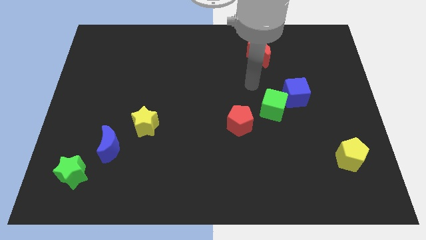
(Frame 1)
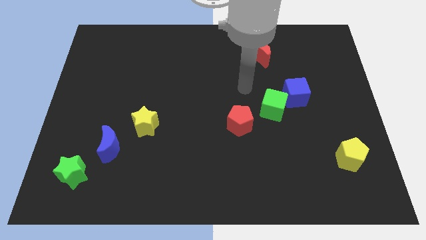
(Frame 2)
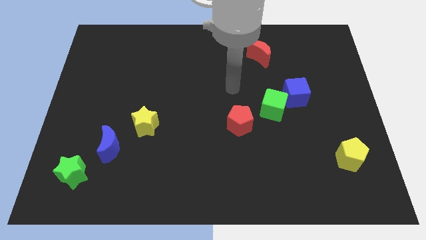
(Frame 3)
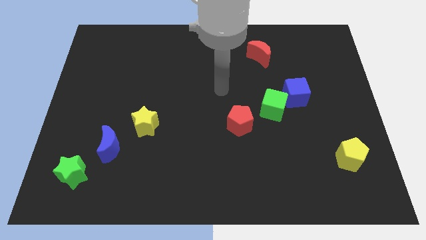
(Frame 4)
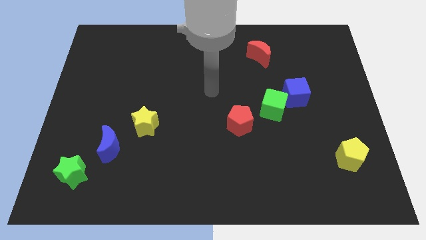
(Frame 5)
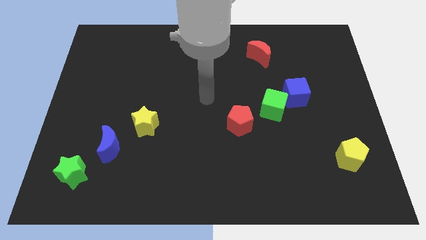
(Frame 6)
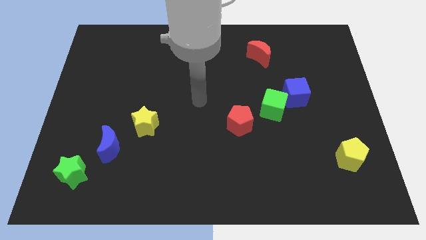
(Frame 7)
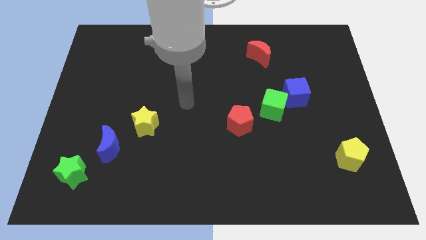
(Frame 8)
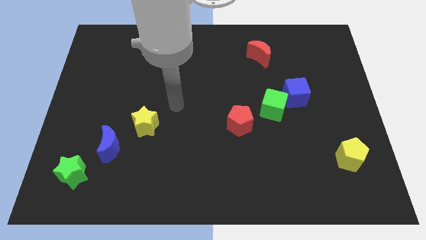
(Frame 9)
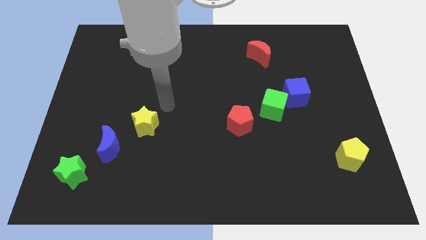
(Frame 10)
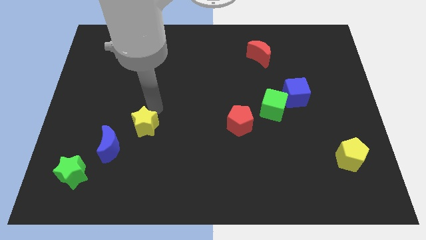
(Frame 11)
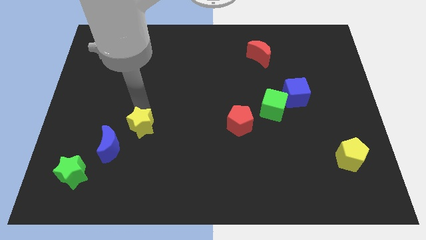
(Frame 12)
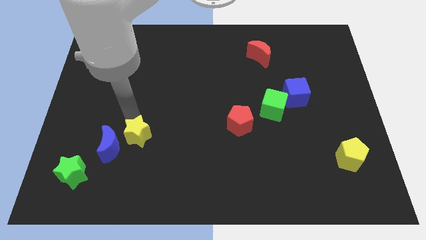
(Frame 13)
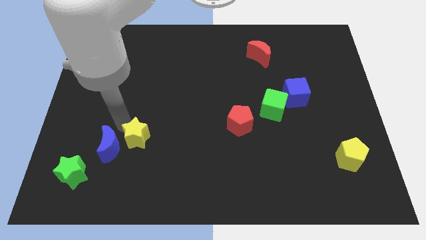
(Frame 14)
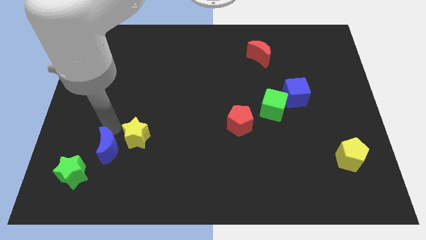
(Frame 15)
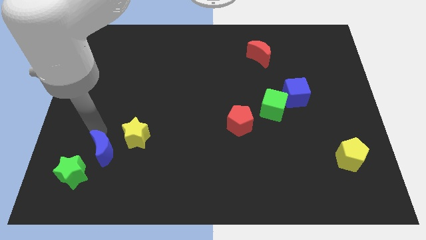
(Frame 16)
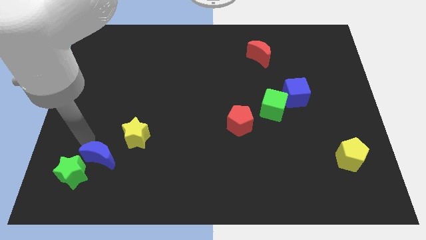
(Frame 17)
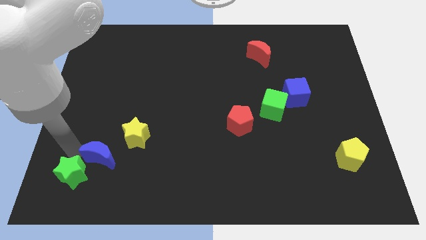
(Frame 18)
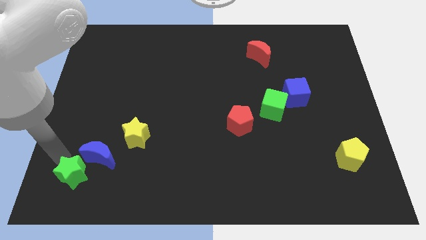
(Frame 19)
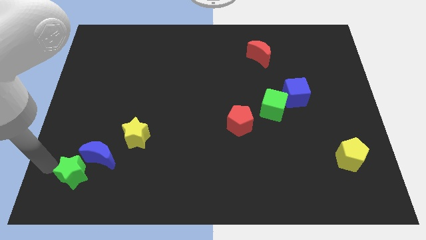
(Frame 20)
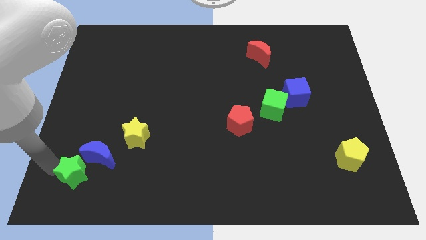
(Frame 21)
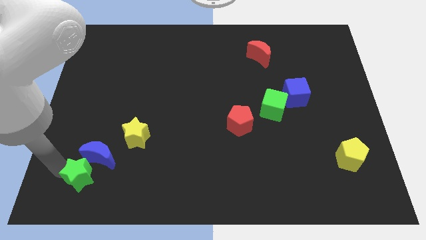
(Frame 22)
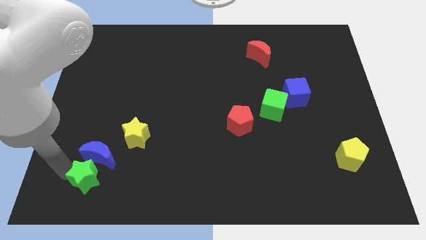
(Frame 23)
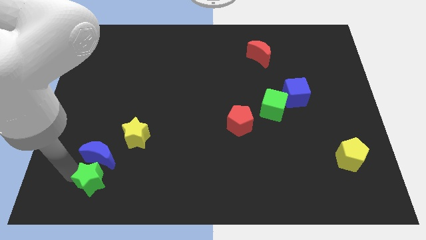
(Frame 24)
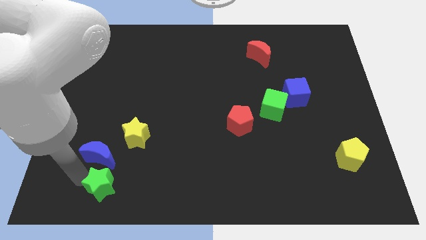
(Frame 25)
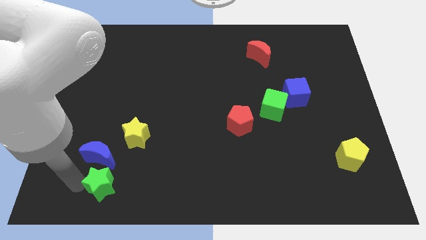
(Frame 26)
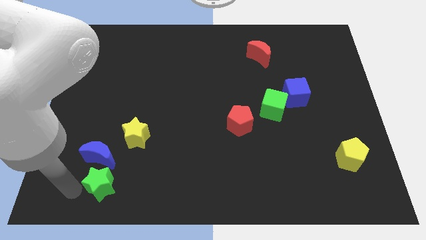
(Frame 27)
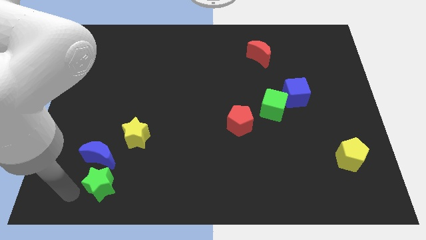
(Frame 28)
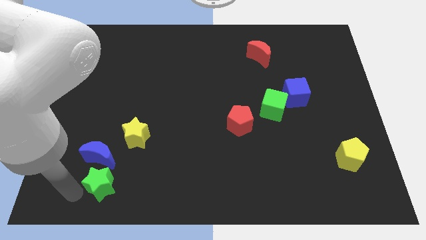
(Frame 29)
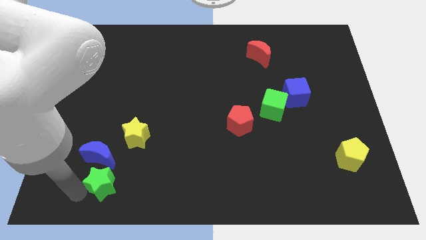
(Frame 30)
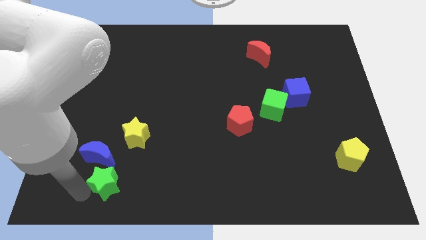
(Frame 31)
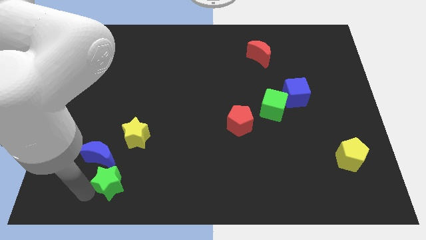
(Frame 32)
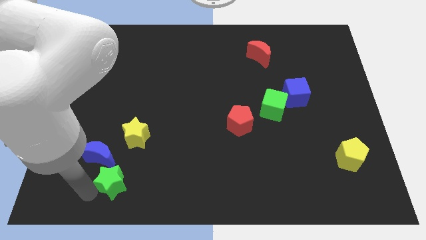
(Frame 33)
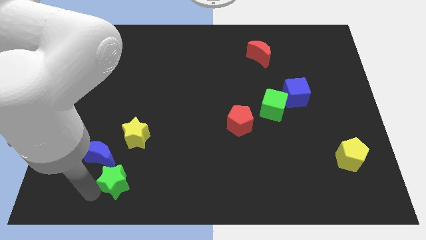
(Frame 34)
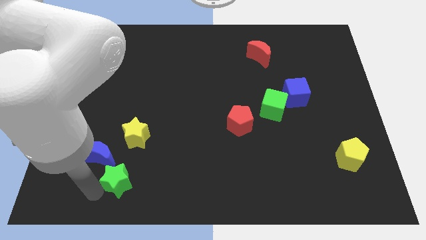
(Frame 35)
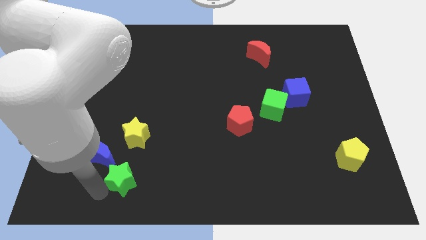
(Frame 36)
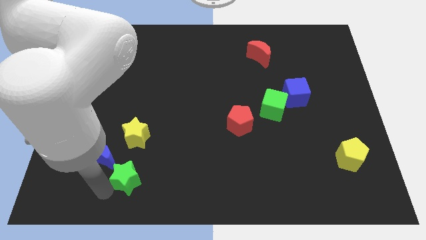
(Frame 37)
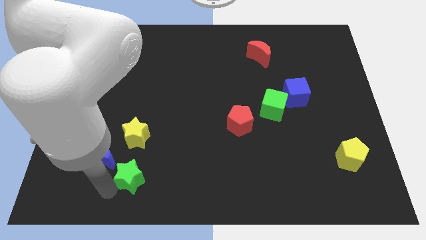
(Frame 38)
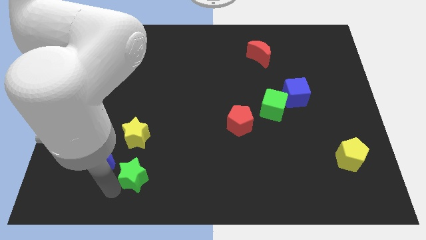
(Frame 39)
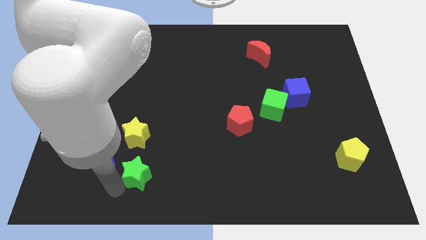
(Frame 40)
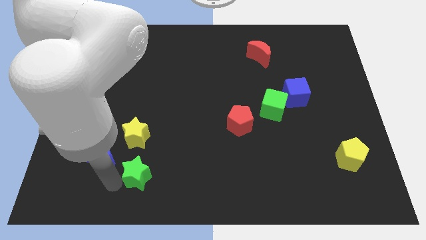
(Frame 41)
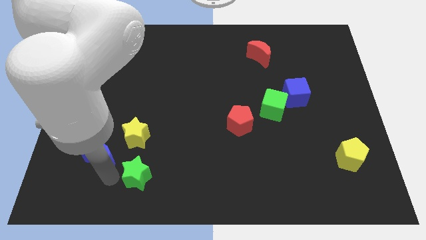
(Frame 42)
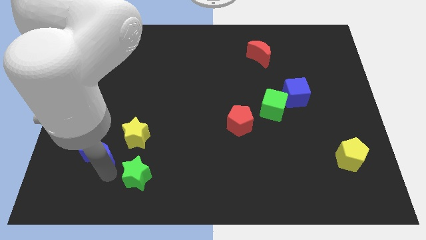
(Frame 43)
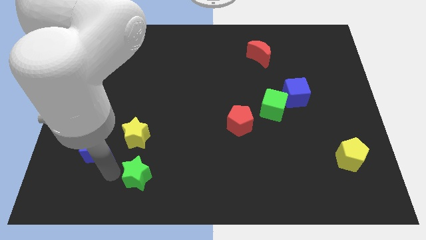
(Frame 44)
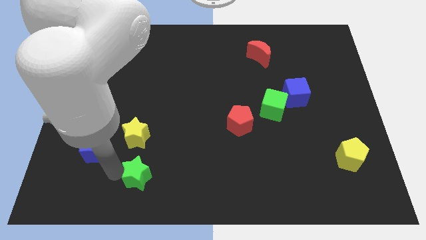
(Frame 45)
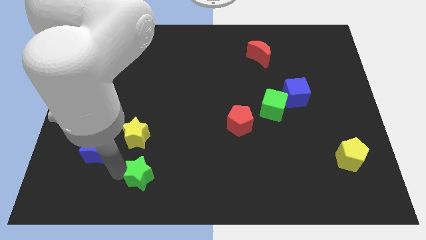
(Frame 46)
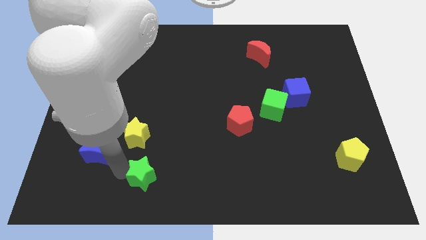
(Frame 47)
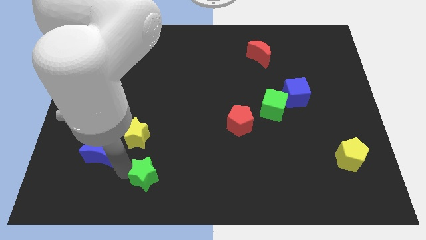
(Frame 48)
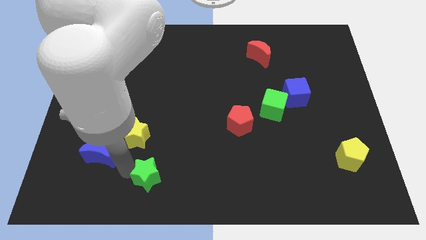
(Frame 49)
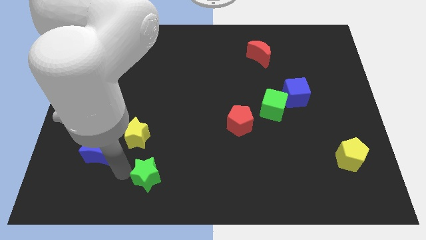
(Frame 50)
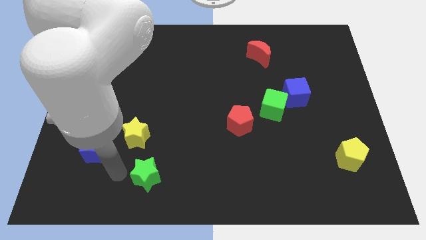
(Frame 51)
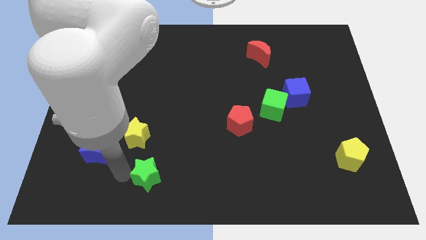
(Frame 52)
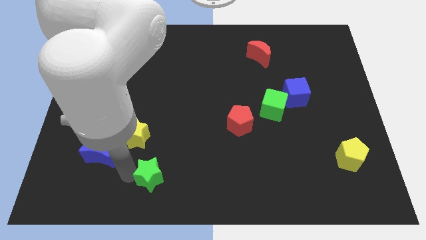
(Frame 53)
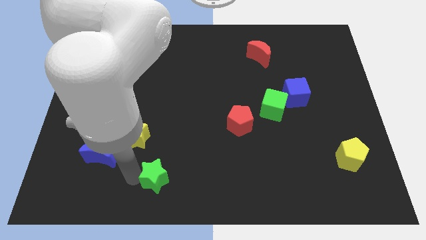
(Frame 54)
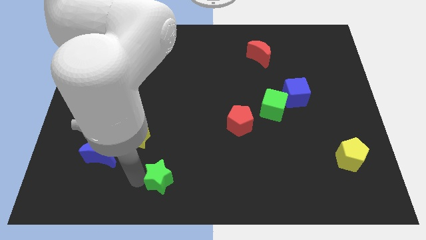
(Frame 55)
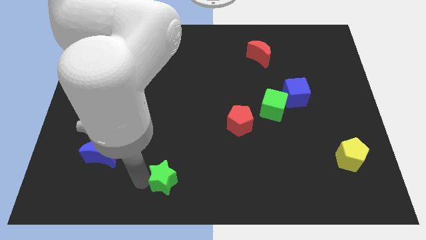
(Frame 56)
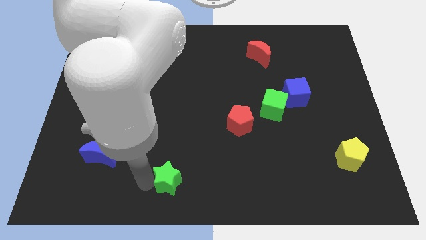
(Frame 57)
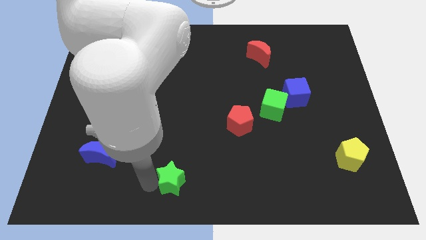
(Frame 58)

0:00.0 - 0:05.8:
slide the green star to the right

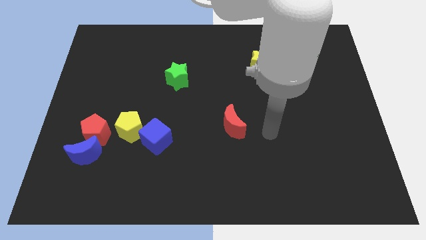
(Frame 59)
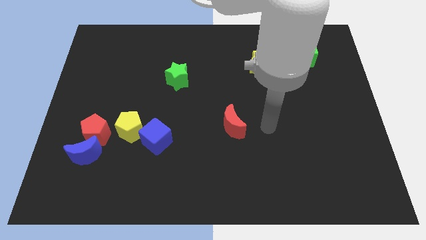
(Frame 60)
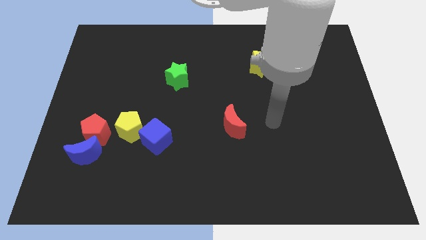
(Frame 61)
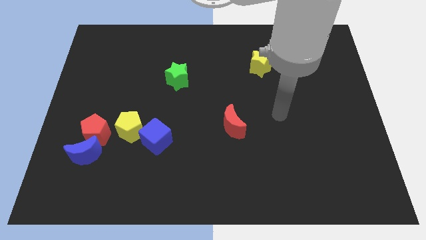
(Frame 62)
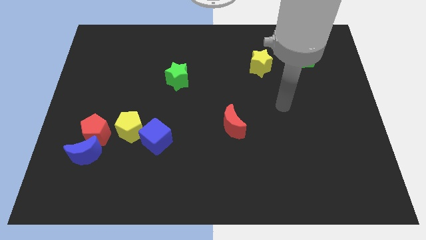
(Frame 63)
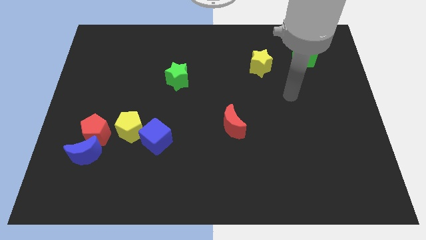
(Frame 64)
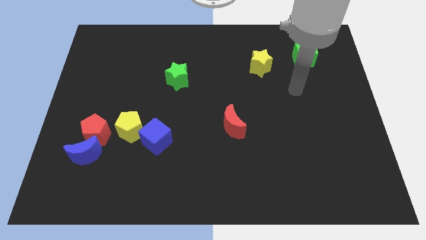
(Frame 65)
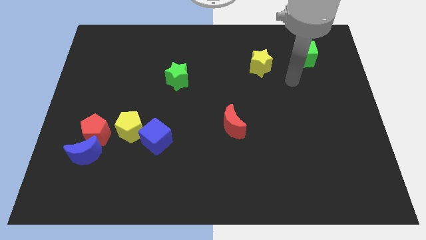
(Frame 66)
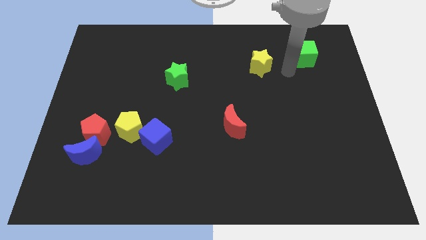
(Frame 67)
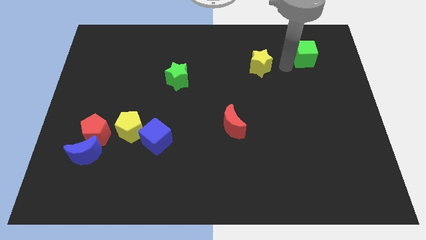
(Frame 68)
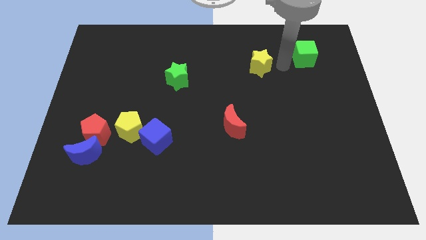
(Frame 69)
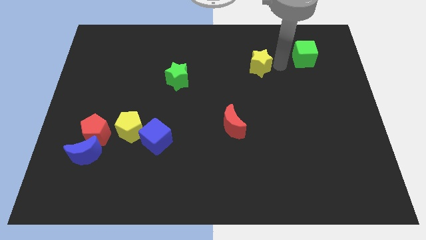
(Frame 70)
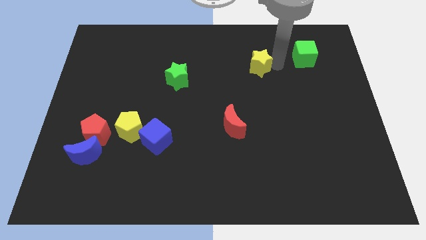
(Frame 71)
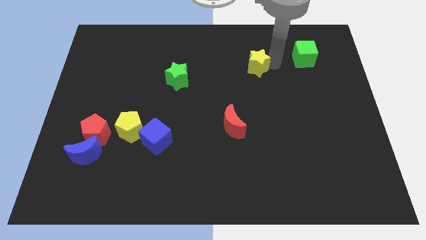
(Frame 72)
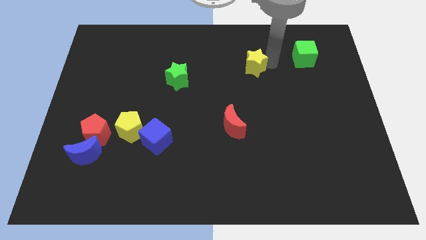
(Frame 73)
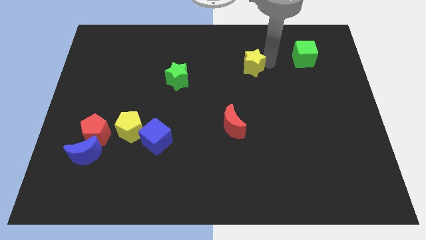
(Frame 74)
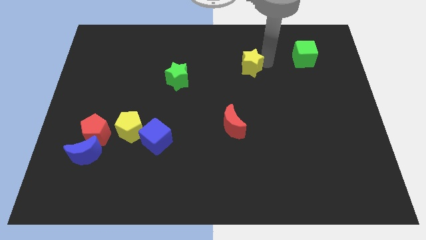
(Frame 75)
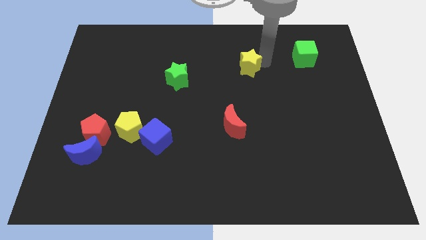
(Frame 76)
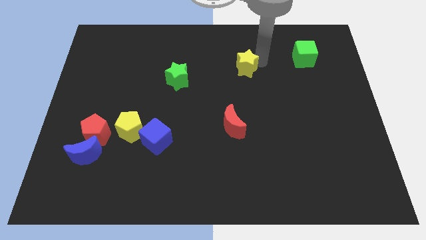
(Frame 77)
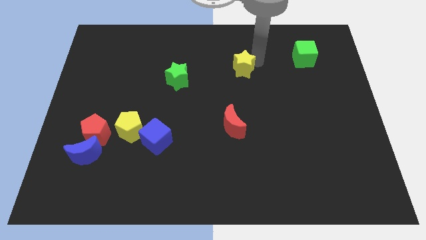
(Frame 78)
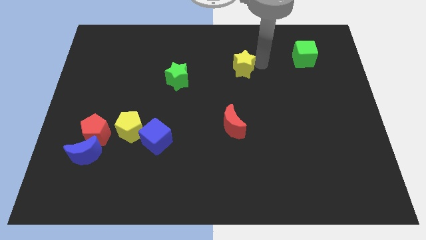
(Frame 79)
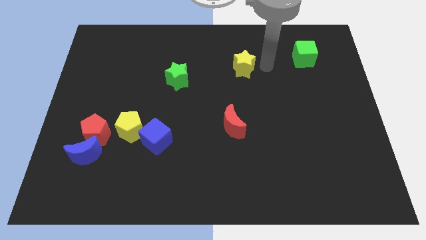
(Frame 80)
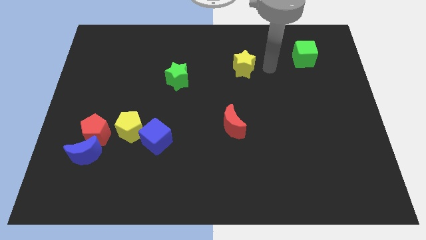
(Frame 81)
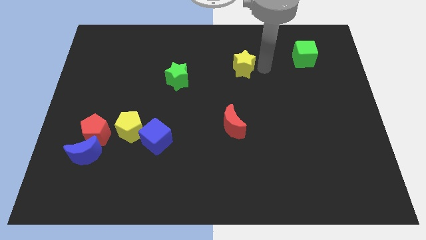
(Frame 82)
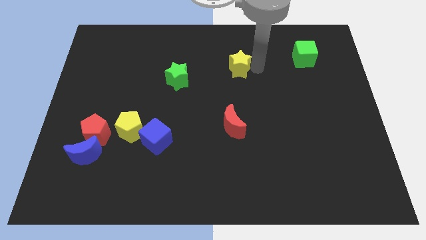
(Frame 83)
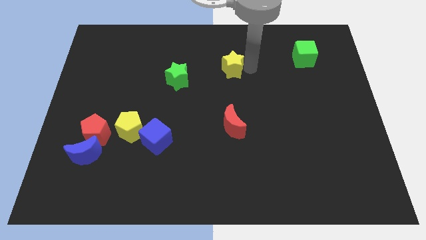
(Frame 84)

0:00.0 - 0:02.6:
slide the yellow star a bit to the left
